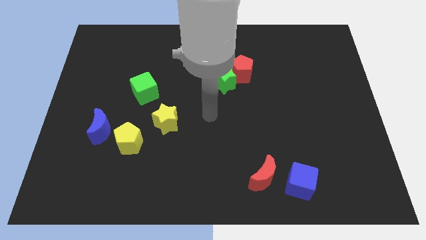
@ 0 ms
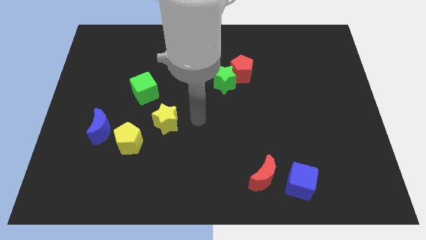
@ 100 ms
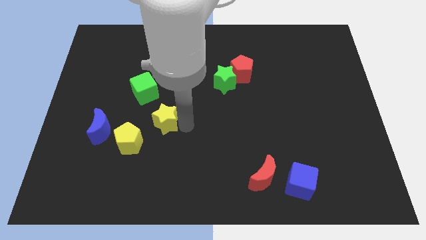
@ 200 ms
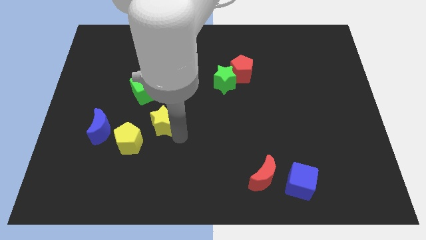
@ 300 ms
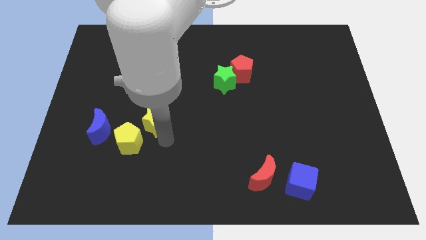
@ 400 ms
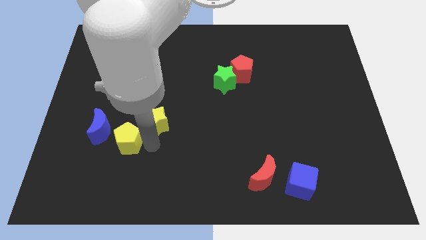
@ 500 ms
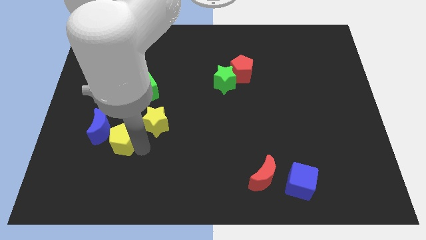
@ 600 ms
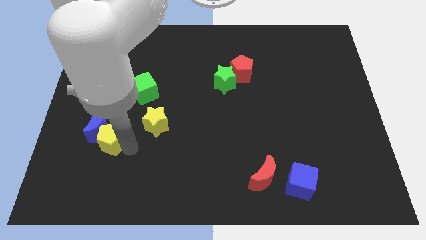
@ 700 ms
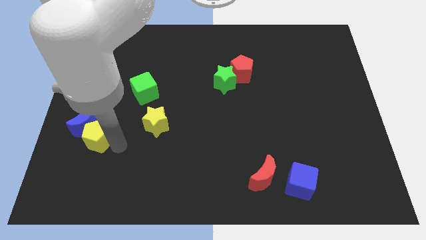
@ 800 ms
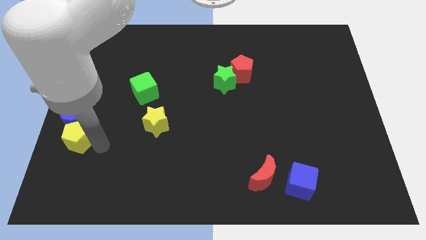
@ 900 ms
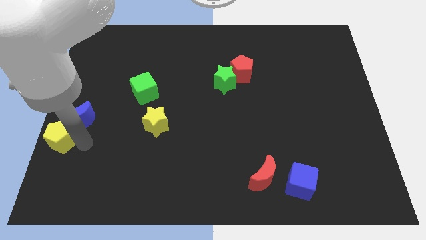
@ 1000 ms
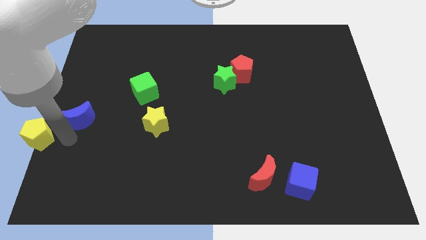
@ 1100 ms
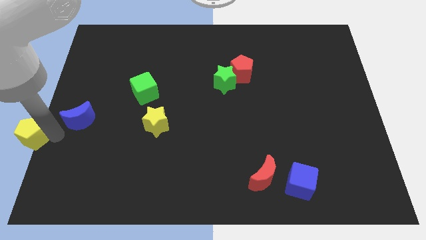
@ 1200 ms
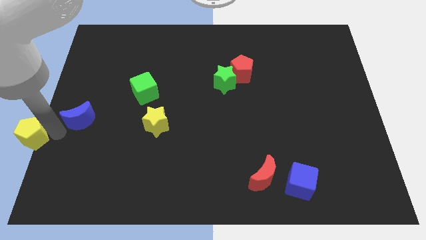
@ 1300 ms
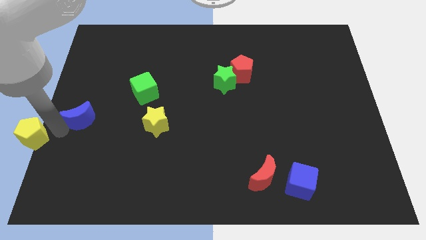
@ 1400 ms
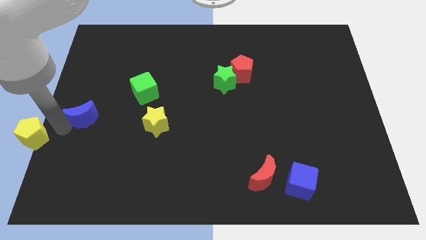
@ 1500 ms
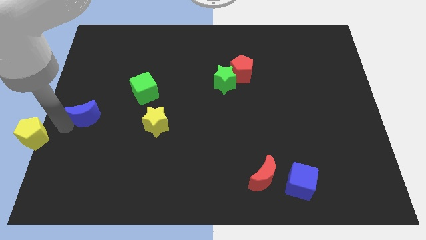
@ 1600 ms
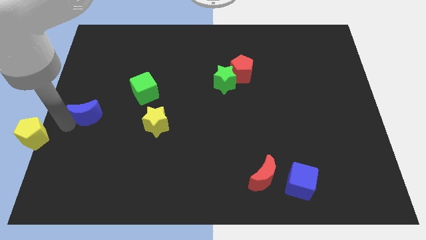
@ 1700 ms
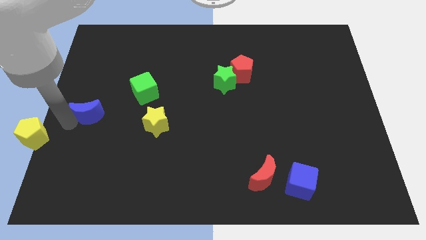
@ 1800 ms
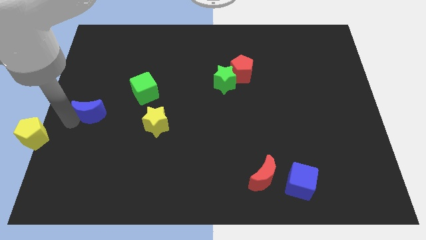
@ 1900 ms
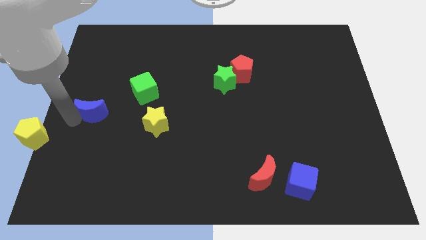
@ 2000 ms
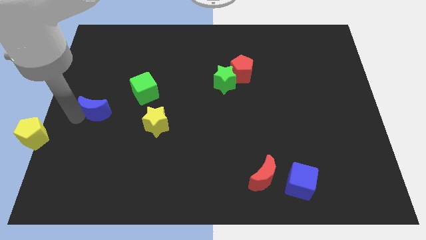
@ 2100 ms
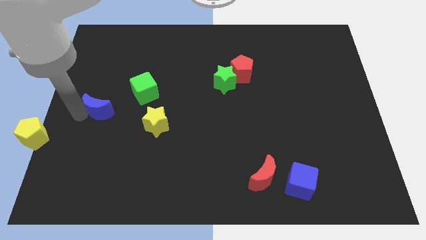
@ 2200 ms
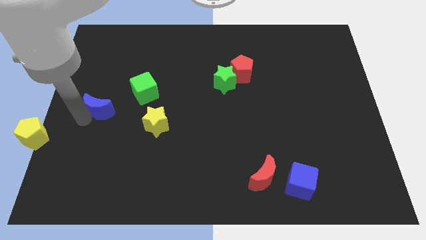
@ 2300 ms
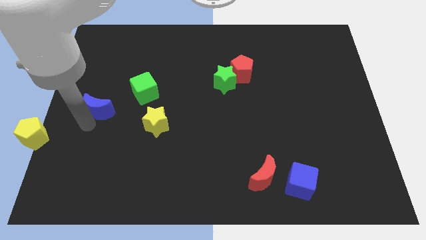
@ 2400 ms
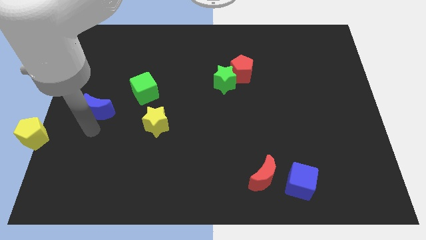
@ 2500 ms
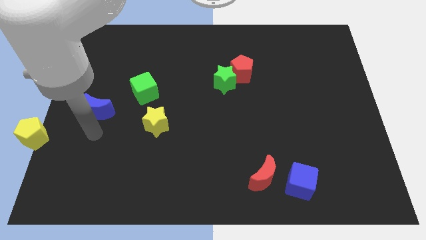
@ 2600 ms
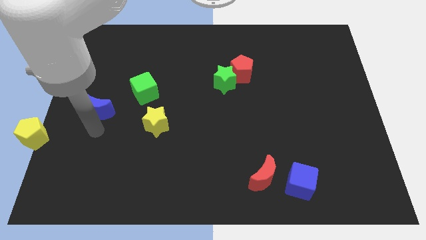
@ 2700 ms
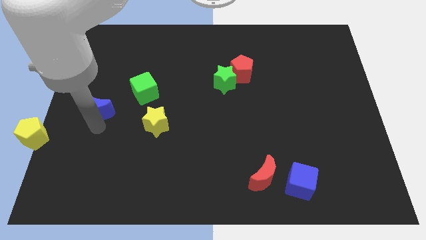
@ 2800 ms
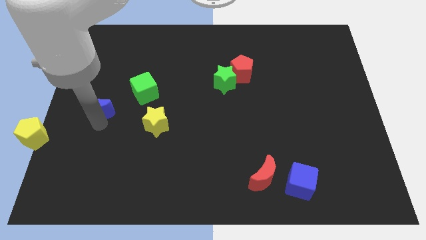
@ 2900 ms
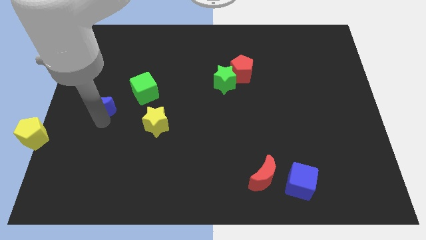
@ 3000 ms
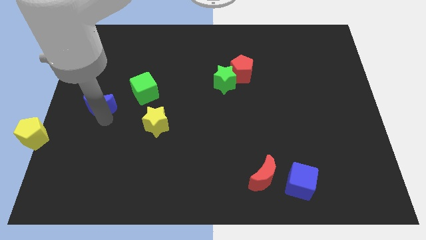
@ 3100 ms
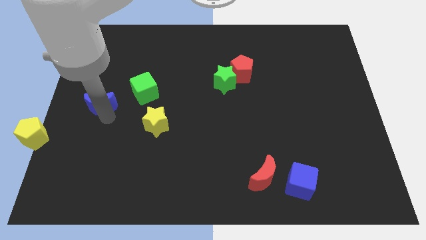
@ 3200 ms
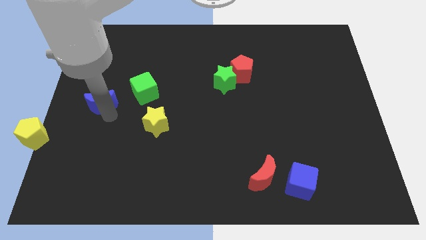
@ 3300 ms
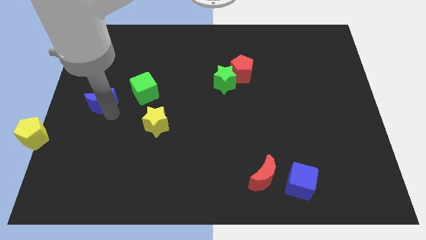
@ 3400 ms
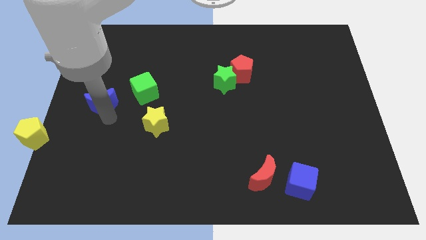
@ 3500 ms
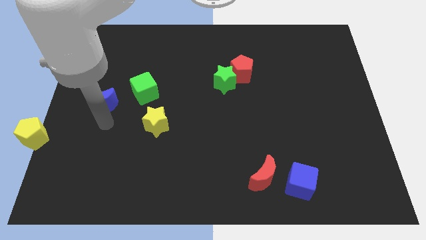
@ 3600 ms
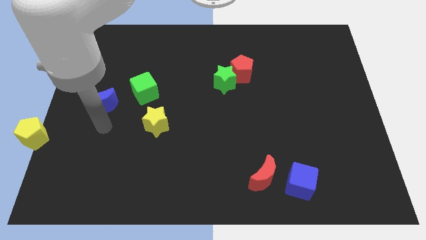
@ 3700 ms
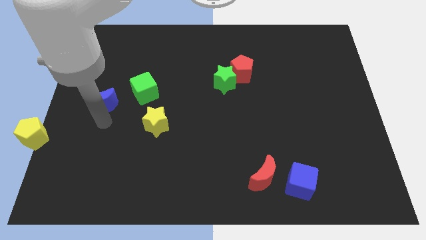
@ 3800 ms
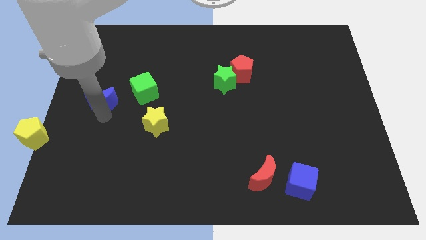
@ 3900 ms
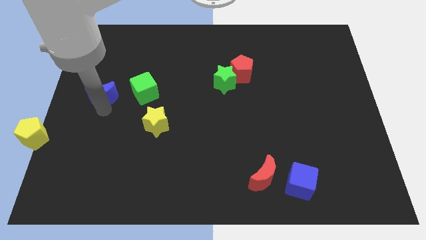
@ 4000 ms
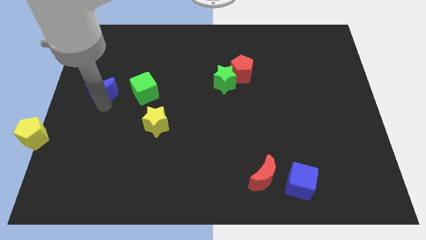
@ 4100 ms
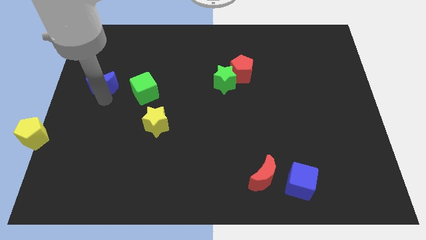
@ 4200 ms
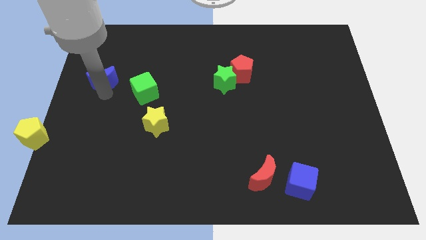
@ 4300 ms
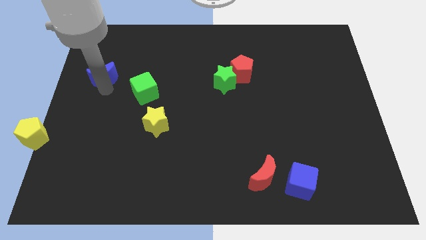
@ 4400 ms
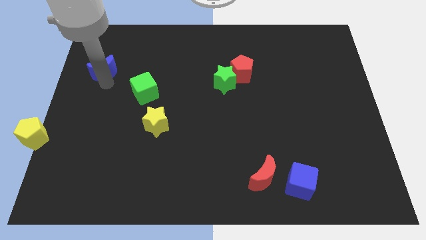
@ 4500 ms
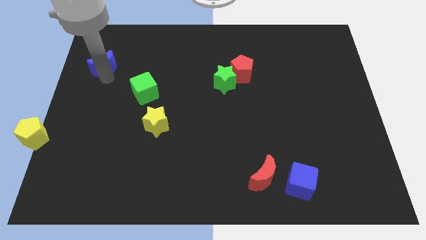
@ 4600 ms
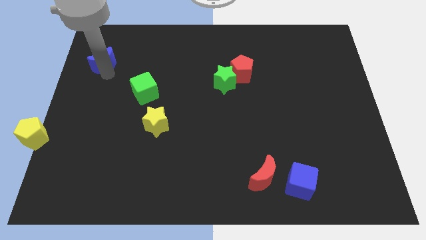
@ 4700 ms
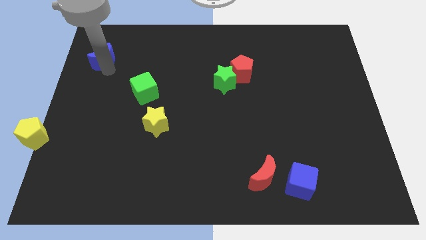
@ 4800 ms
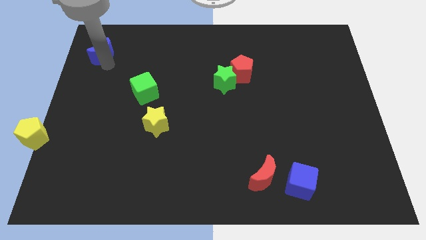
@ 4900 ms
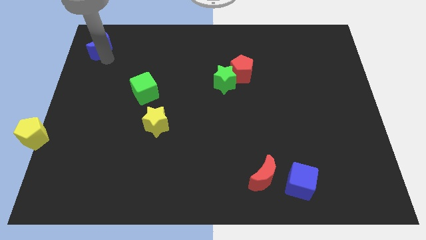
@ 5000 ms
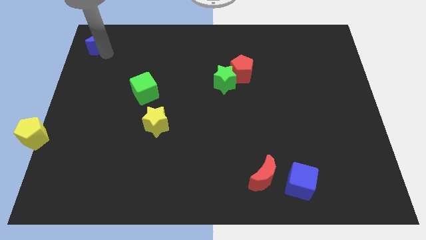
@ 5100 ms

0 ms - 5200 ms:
put the blue moon to the top left corner

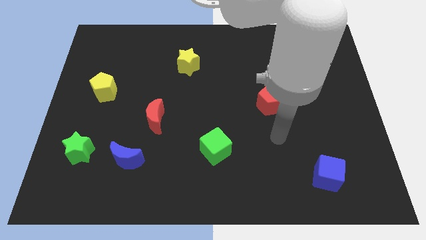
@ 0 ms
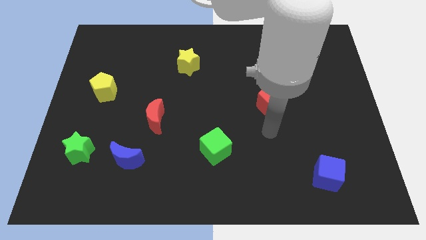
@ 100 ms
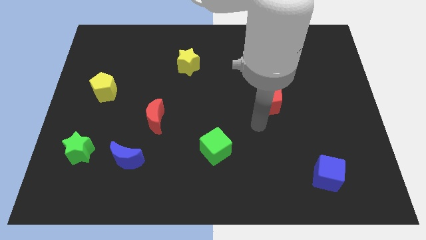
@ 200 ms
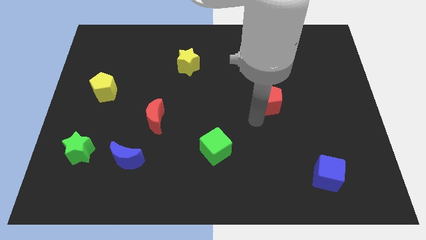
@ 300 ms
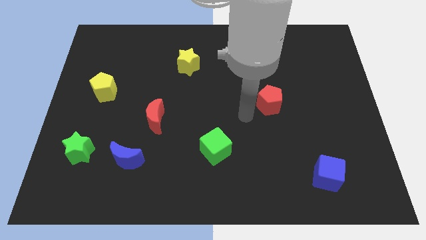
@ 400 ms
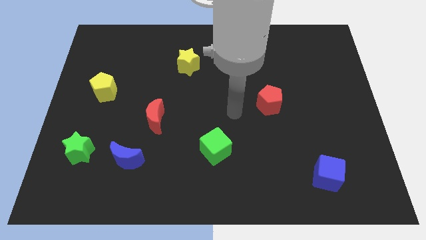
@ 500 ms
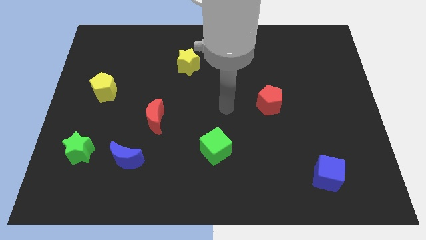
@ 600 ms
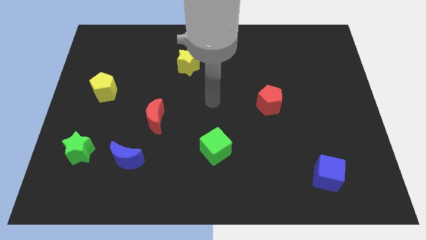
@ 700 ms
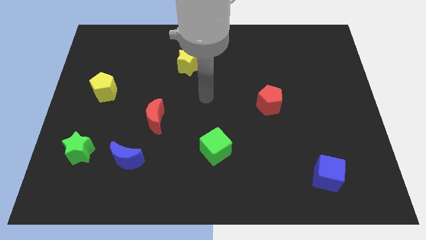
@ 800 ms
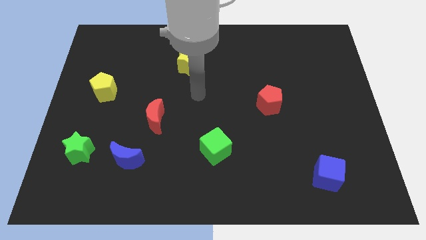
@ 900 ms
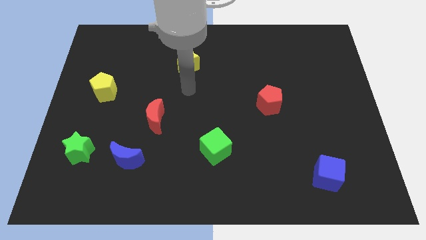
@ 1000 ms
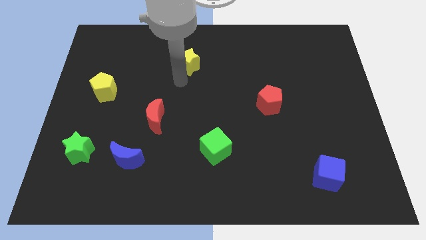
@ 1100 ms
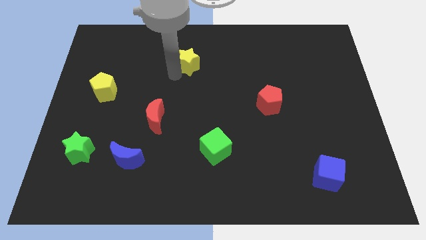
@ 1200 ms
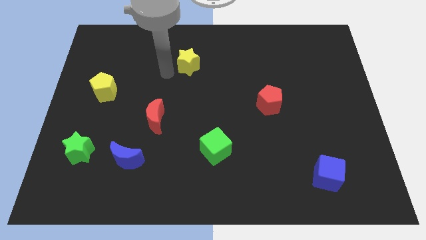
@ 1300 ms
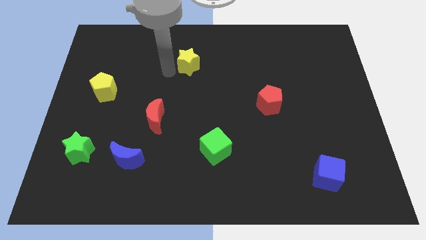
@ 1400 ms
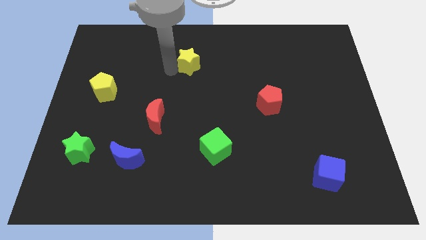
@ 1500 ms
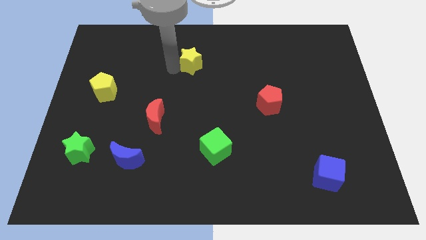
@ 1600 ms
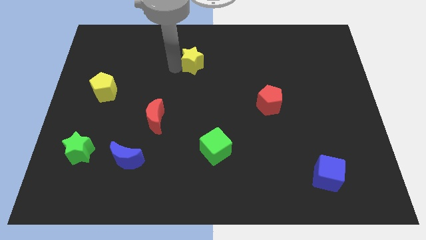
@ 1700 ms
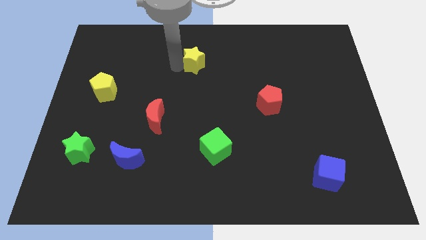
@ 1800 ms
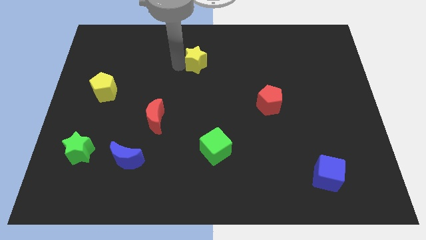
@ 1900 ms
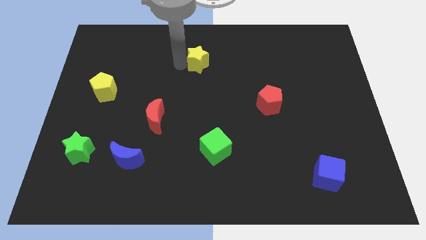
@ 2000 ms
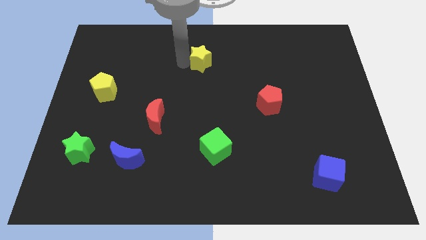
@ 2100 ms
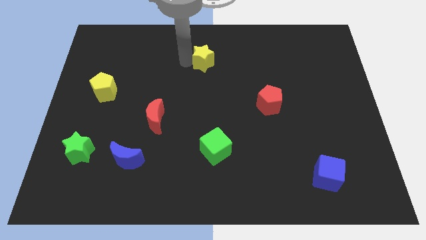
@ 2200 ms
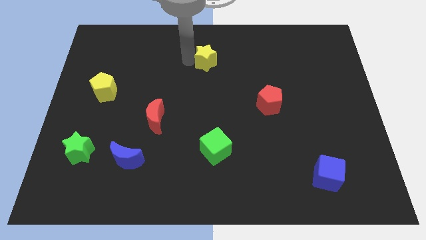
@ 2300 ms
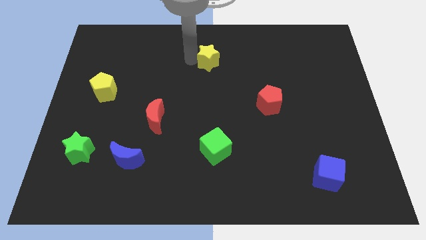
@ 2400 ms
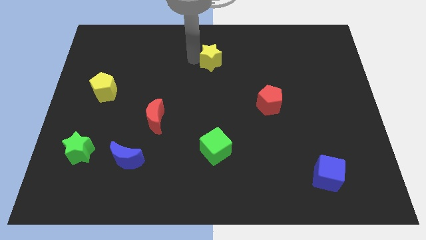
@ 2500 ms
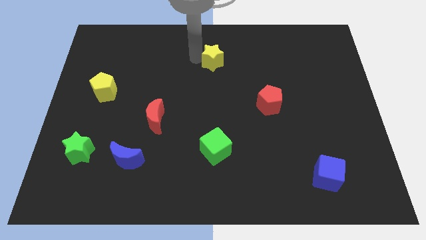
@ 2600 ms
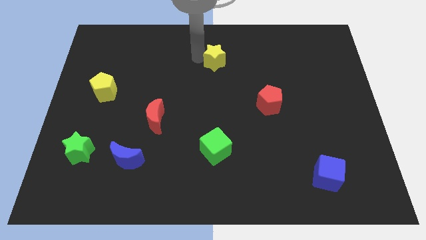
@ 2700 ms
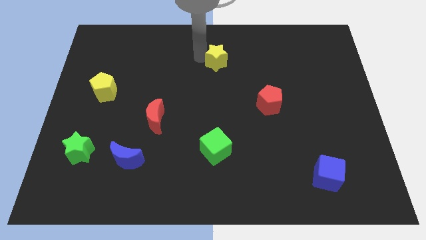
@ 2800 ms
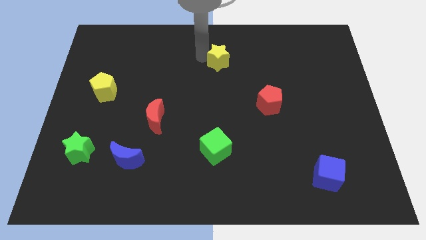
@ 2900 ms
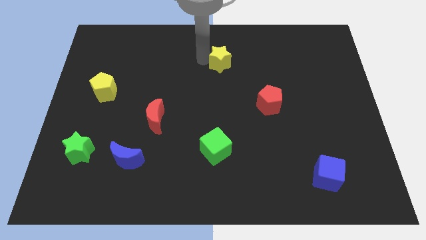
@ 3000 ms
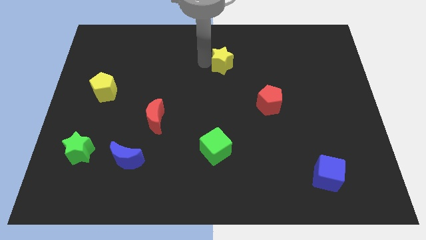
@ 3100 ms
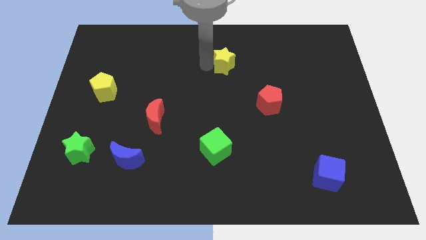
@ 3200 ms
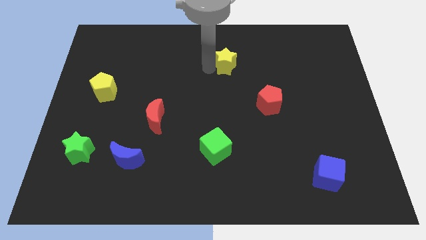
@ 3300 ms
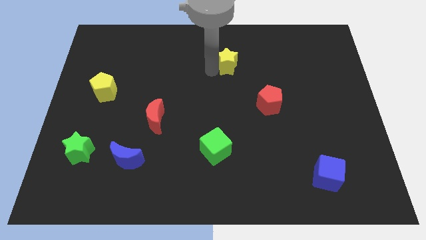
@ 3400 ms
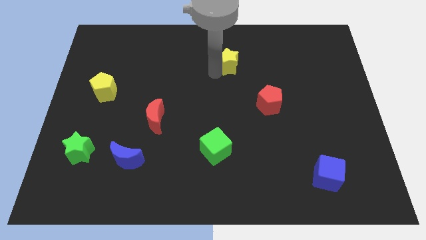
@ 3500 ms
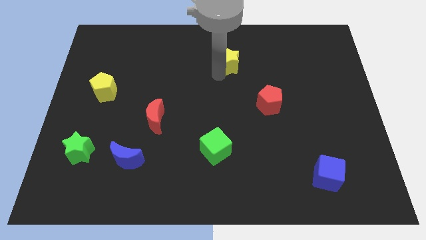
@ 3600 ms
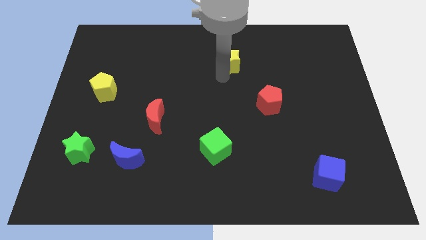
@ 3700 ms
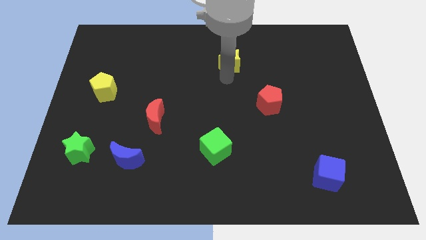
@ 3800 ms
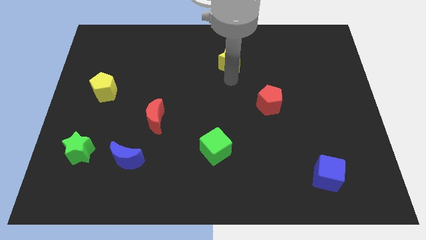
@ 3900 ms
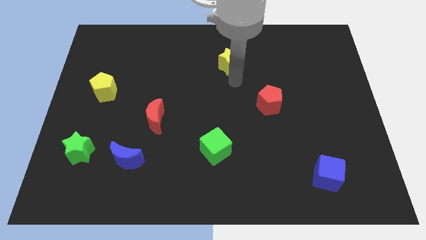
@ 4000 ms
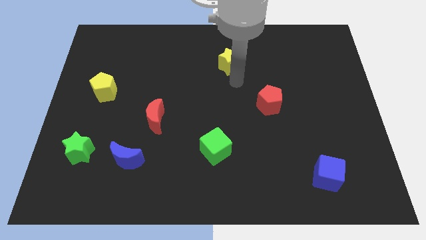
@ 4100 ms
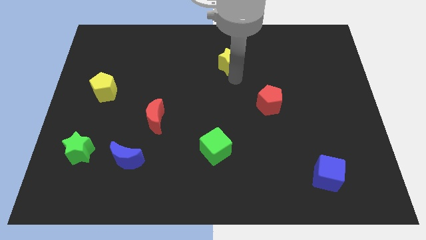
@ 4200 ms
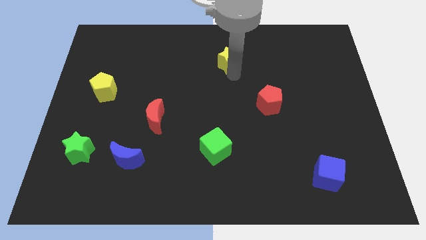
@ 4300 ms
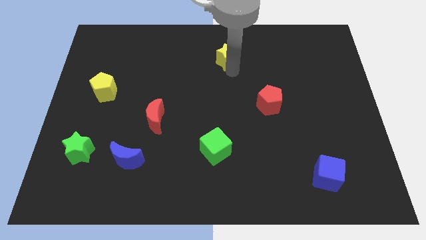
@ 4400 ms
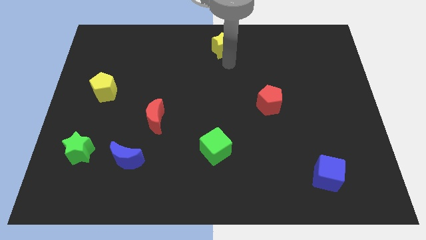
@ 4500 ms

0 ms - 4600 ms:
slide the yellow star to the top side
